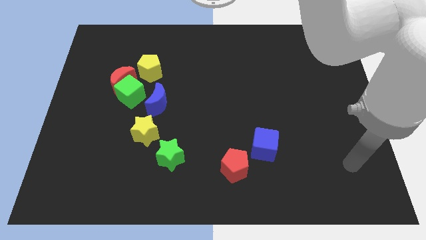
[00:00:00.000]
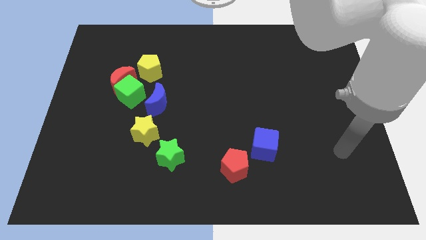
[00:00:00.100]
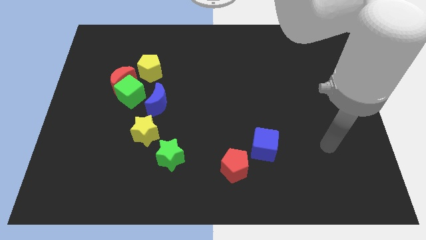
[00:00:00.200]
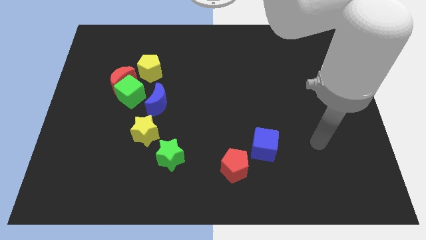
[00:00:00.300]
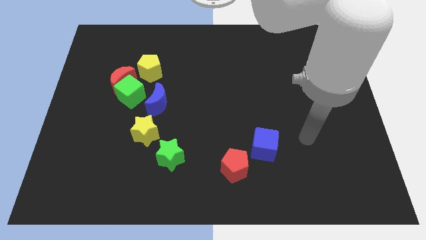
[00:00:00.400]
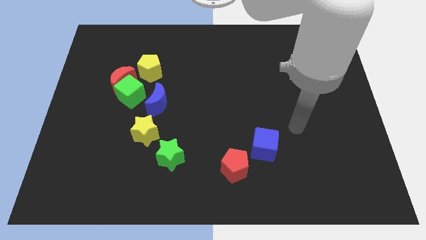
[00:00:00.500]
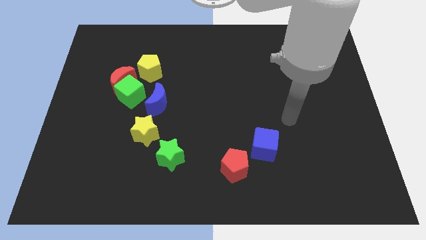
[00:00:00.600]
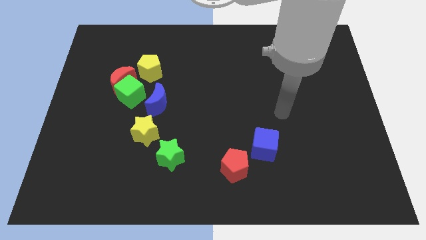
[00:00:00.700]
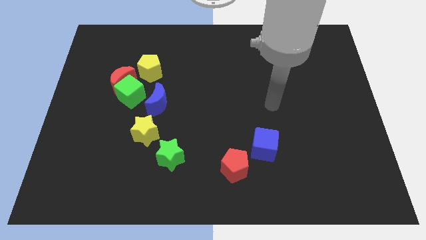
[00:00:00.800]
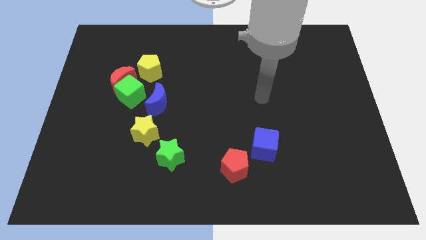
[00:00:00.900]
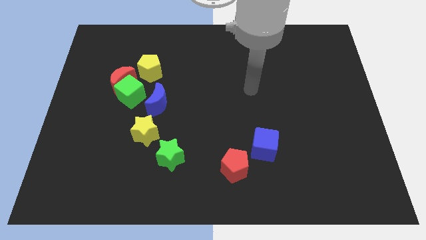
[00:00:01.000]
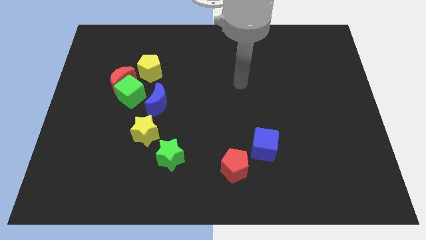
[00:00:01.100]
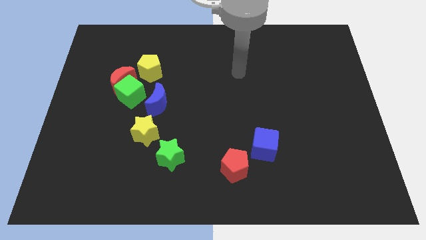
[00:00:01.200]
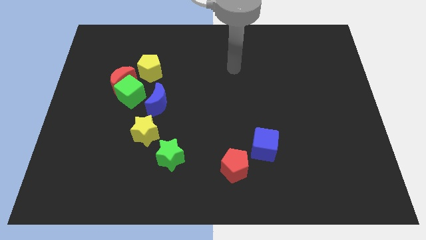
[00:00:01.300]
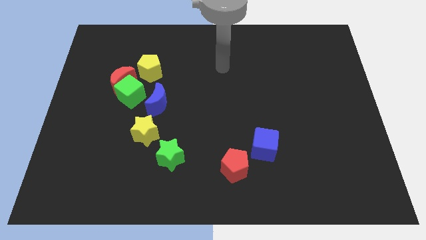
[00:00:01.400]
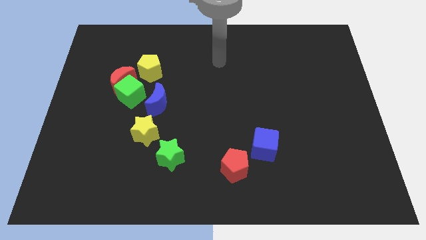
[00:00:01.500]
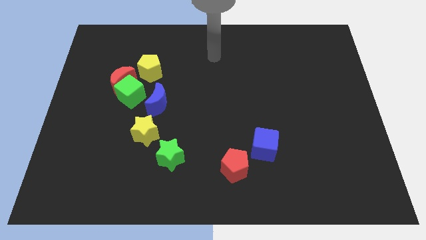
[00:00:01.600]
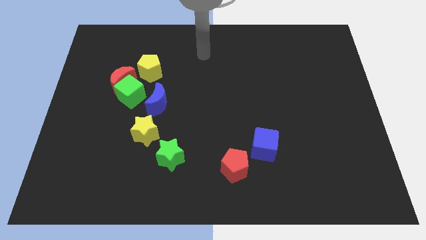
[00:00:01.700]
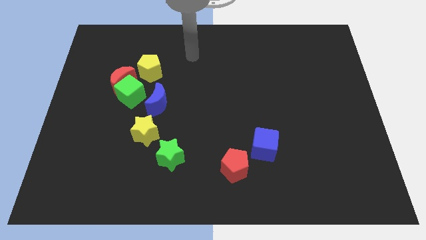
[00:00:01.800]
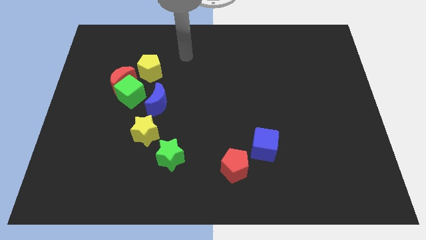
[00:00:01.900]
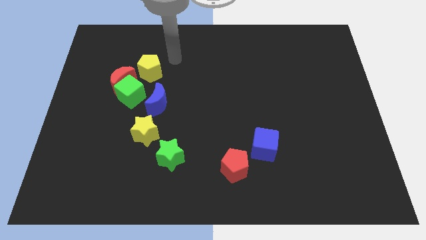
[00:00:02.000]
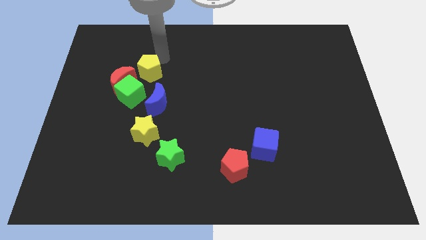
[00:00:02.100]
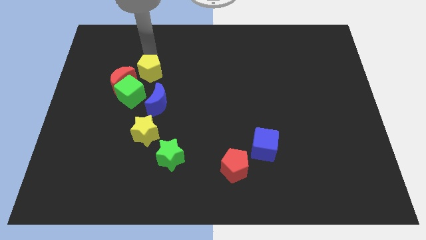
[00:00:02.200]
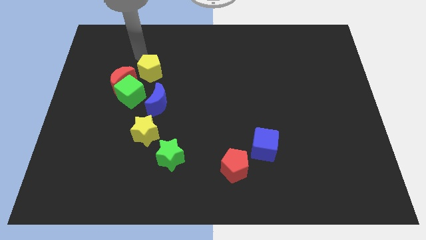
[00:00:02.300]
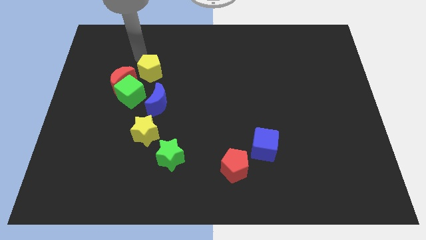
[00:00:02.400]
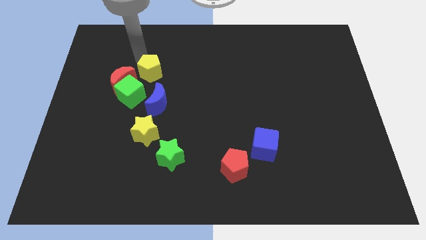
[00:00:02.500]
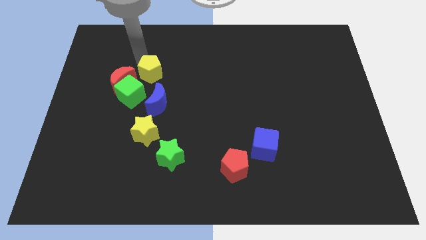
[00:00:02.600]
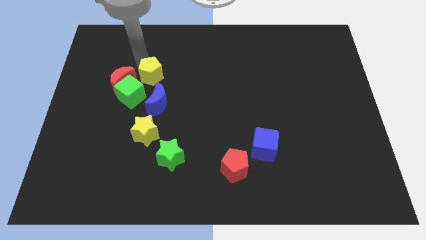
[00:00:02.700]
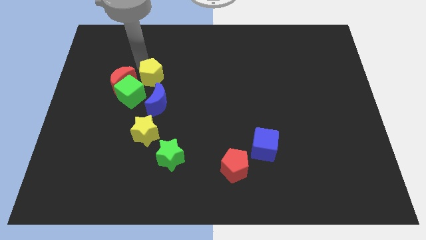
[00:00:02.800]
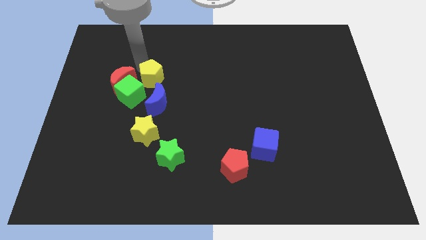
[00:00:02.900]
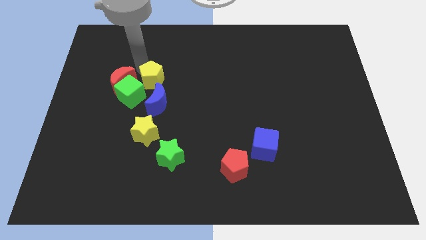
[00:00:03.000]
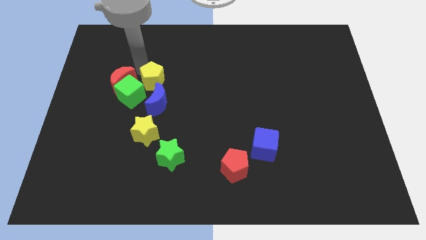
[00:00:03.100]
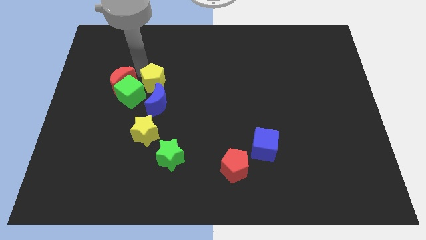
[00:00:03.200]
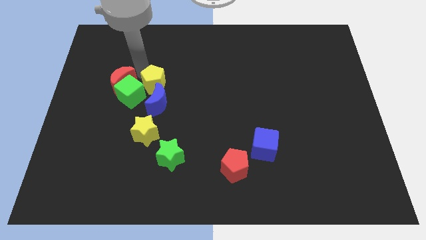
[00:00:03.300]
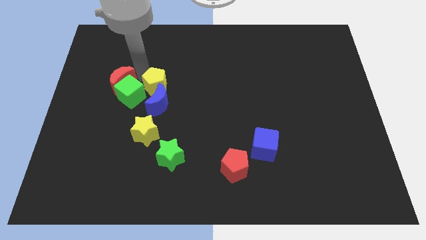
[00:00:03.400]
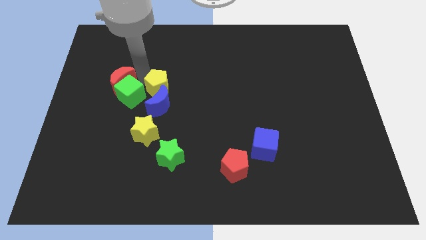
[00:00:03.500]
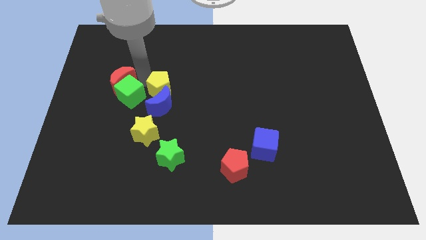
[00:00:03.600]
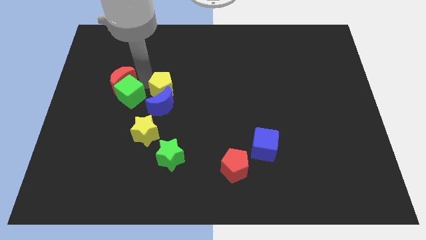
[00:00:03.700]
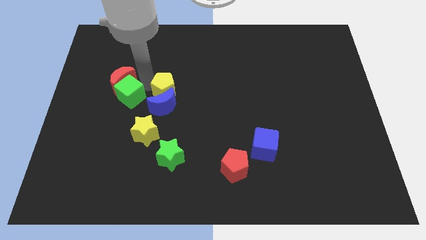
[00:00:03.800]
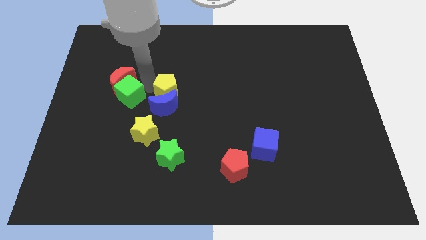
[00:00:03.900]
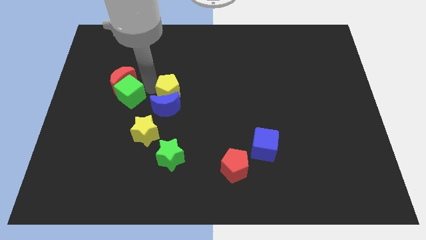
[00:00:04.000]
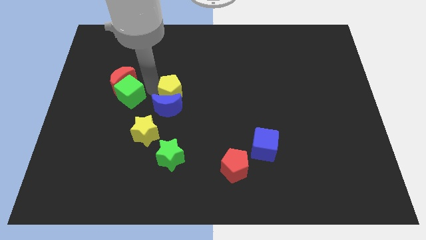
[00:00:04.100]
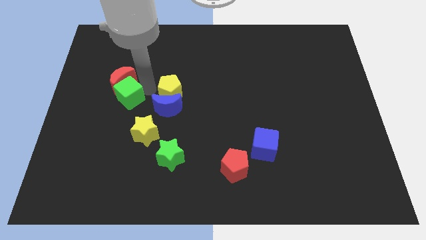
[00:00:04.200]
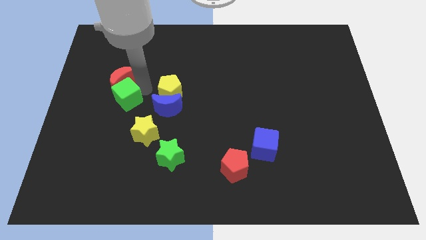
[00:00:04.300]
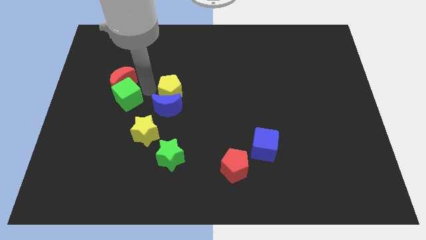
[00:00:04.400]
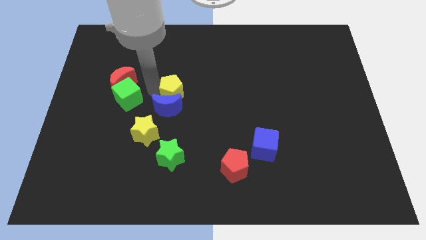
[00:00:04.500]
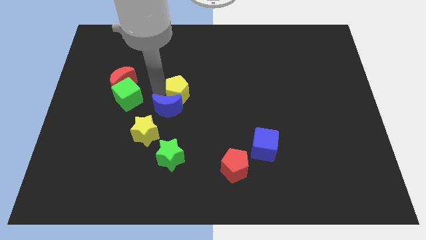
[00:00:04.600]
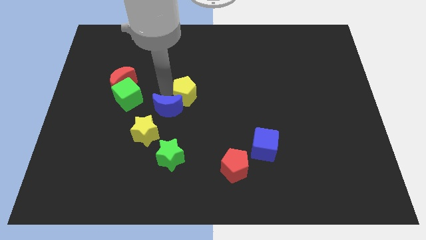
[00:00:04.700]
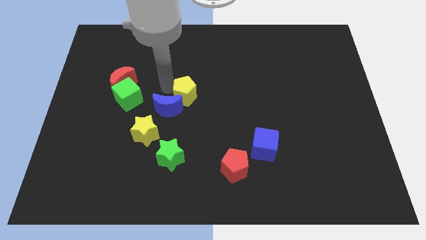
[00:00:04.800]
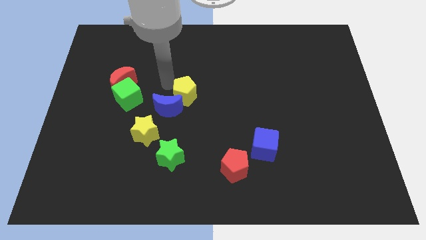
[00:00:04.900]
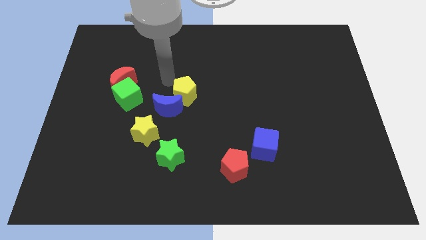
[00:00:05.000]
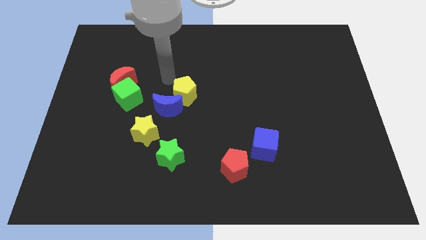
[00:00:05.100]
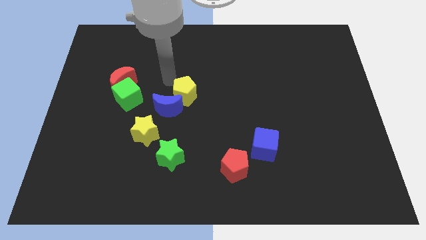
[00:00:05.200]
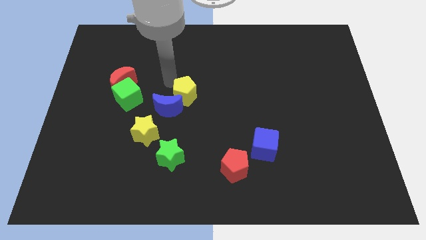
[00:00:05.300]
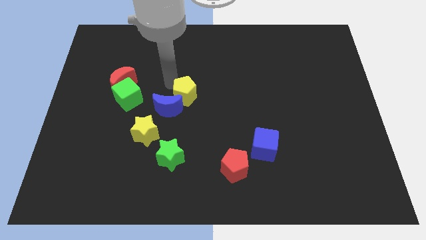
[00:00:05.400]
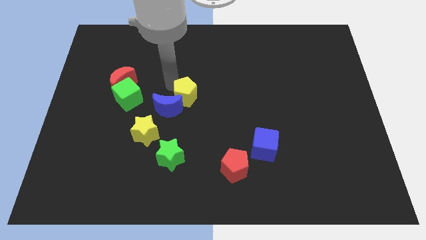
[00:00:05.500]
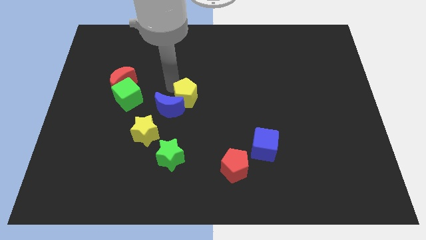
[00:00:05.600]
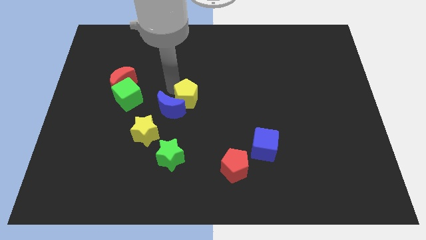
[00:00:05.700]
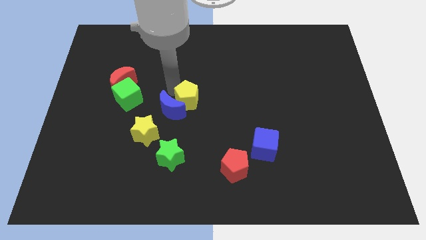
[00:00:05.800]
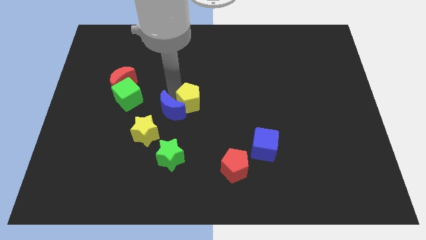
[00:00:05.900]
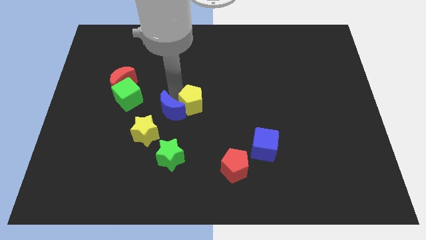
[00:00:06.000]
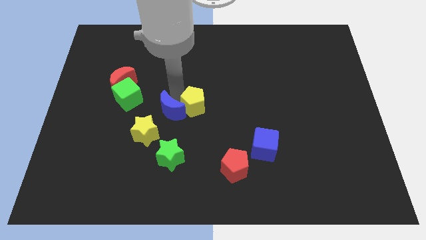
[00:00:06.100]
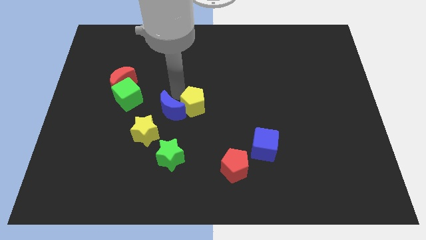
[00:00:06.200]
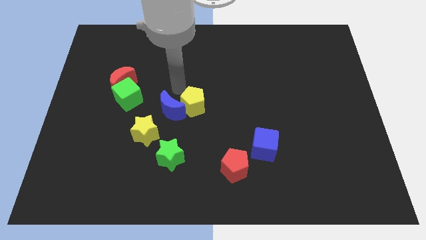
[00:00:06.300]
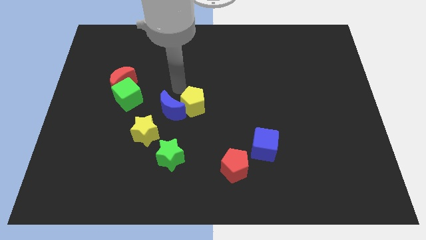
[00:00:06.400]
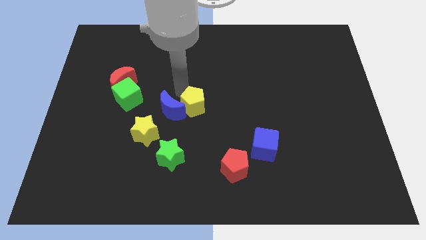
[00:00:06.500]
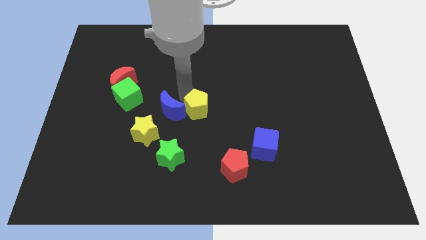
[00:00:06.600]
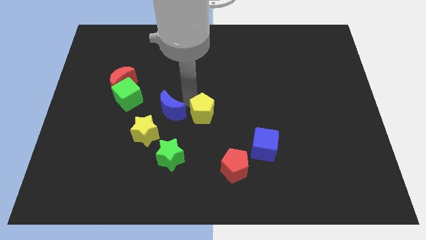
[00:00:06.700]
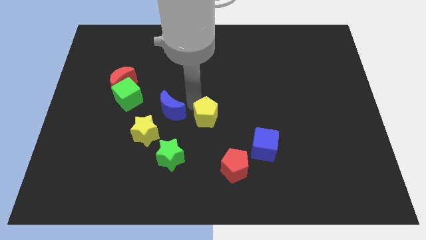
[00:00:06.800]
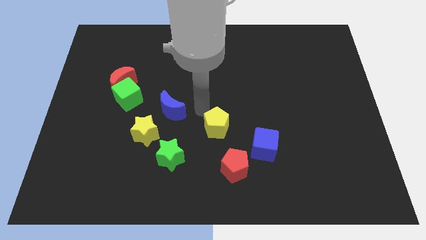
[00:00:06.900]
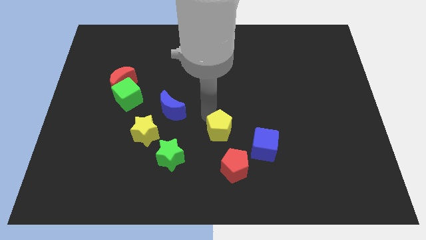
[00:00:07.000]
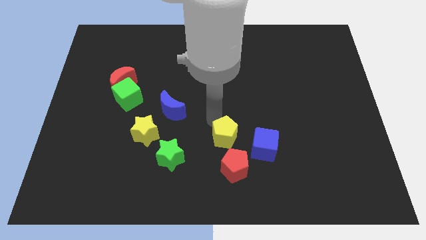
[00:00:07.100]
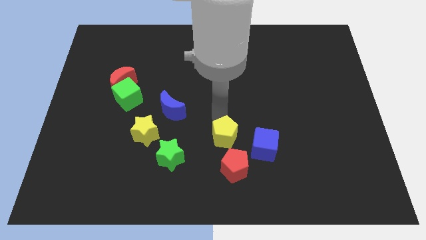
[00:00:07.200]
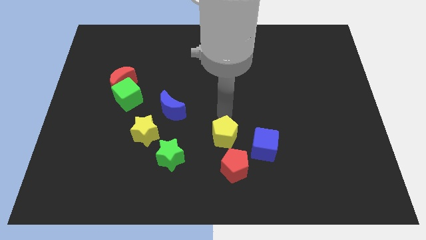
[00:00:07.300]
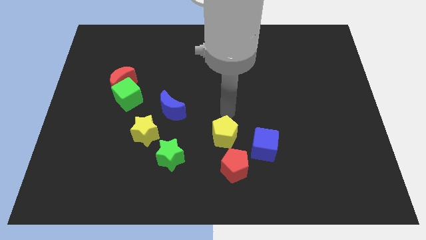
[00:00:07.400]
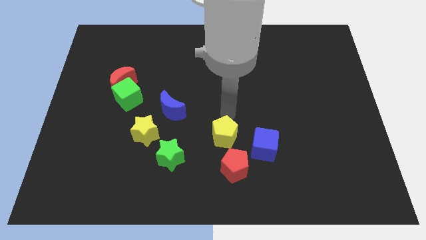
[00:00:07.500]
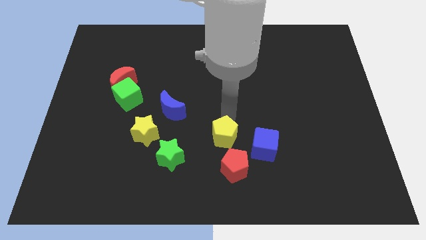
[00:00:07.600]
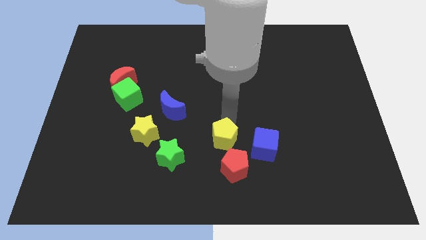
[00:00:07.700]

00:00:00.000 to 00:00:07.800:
move the yellow pentagon right of the green star
